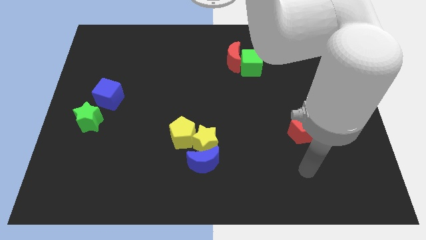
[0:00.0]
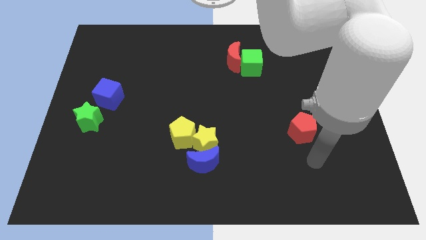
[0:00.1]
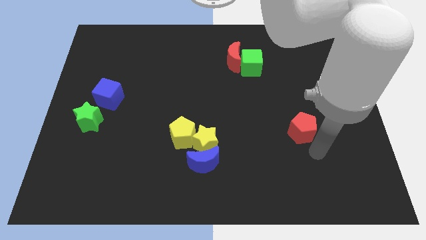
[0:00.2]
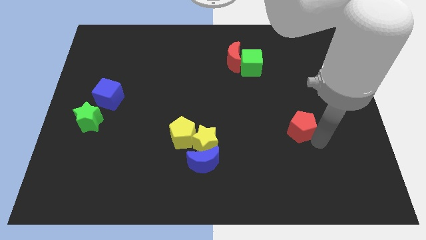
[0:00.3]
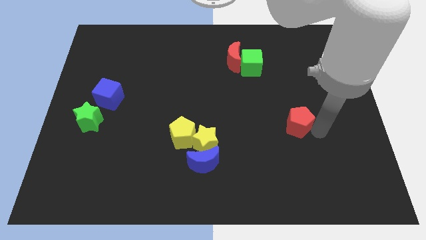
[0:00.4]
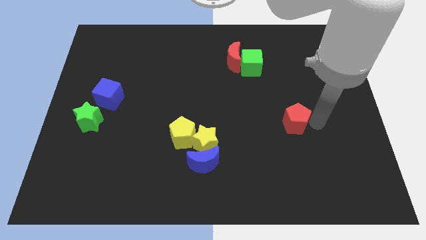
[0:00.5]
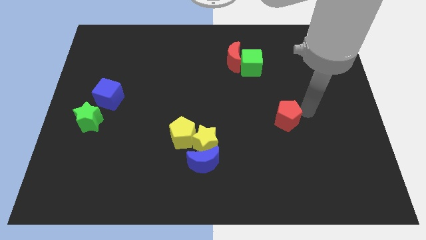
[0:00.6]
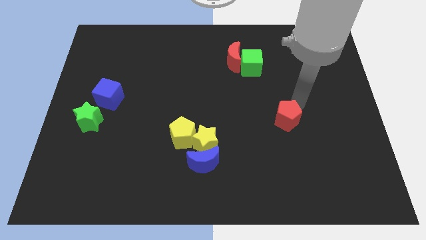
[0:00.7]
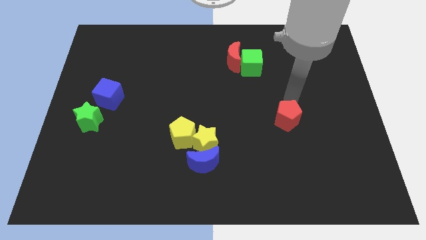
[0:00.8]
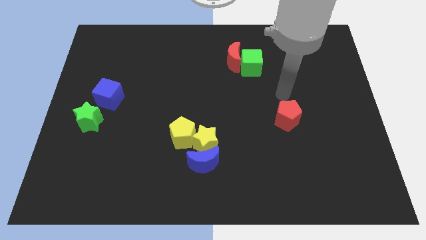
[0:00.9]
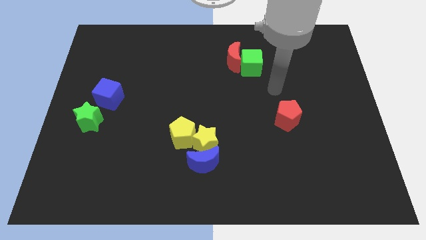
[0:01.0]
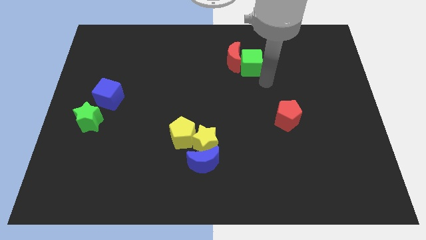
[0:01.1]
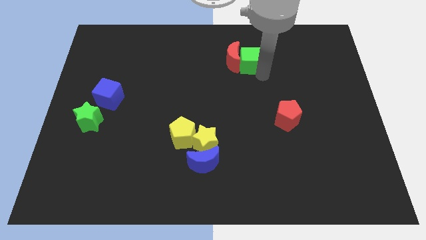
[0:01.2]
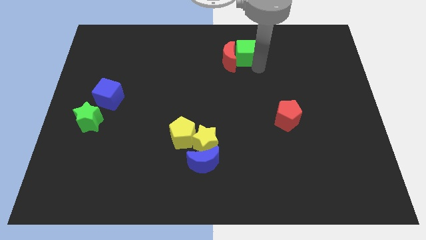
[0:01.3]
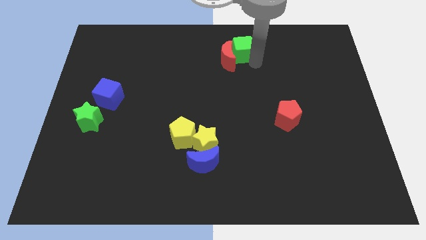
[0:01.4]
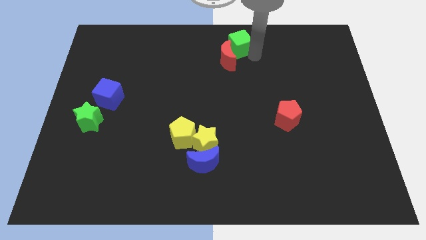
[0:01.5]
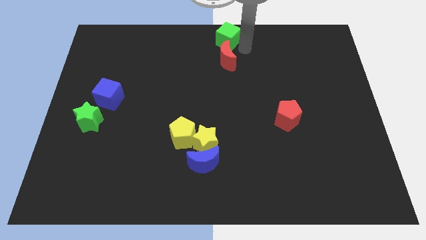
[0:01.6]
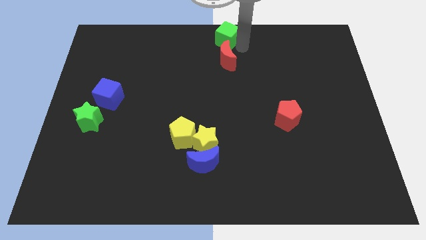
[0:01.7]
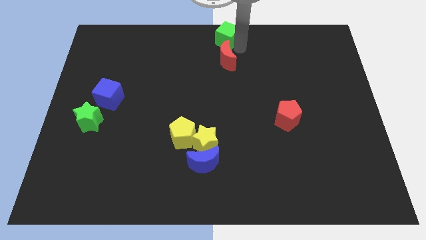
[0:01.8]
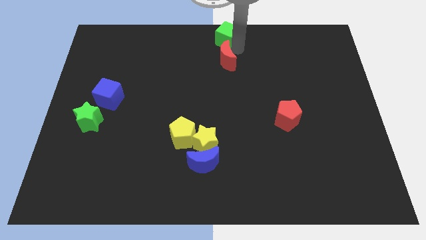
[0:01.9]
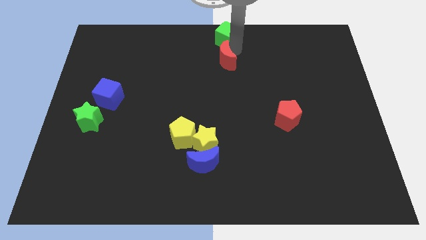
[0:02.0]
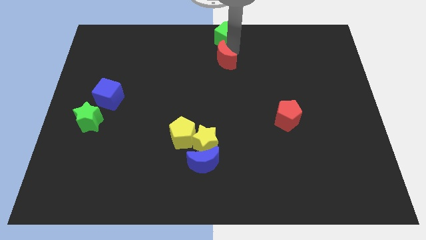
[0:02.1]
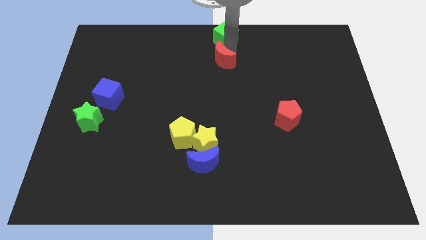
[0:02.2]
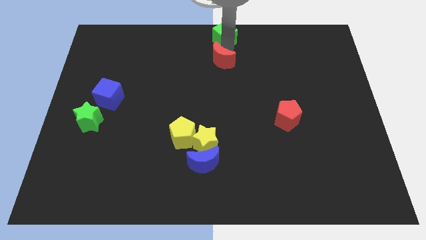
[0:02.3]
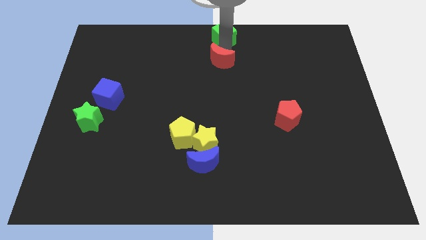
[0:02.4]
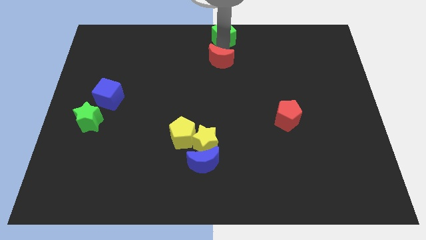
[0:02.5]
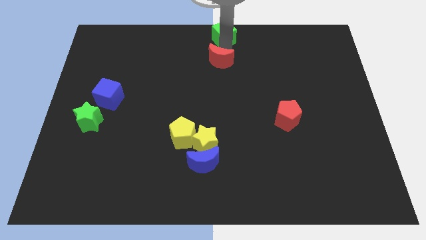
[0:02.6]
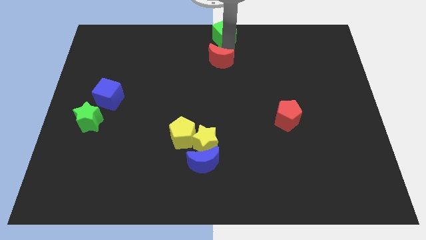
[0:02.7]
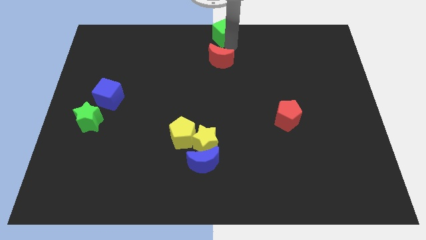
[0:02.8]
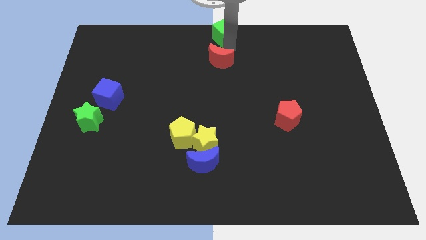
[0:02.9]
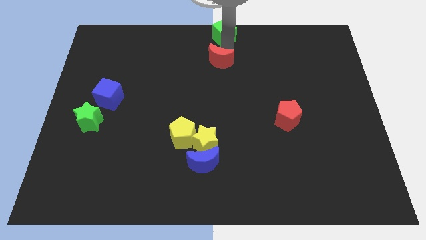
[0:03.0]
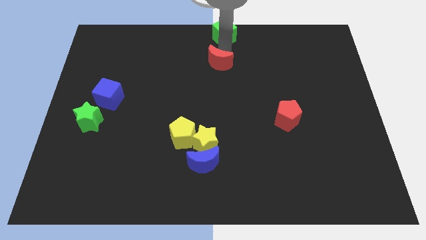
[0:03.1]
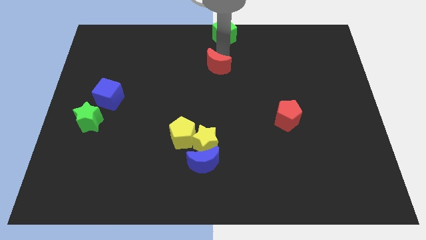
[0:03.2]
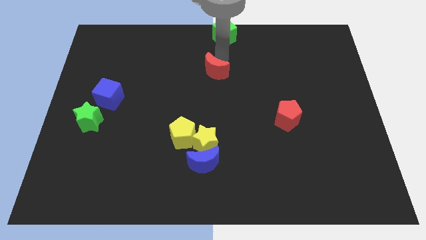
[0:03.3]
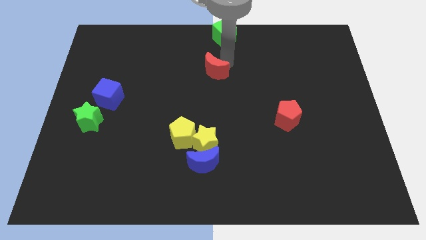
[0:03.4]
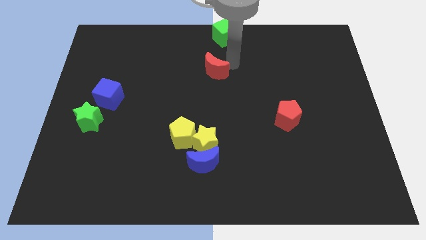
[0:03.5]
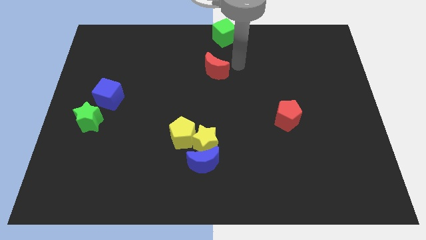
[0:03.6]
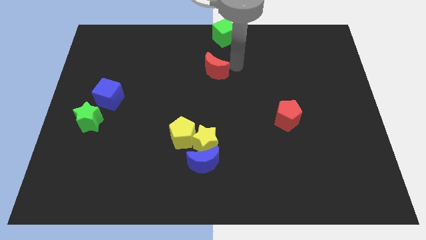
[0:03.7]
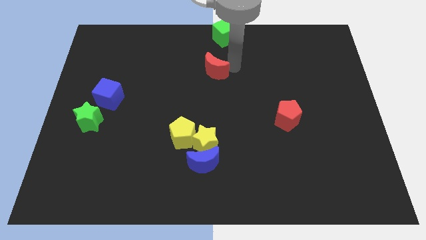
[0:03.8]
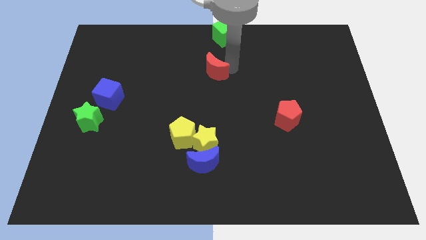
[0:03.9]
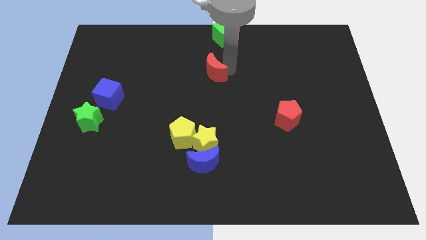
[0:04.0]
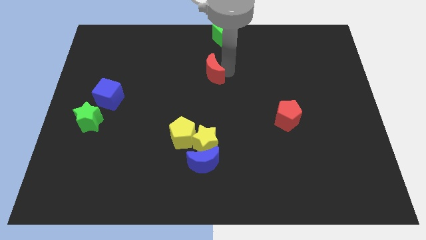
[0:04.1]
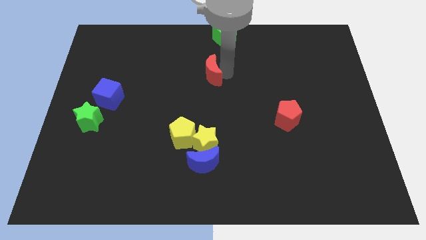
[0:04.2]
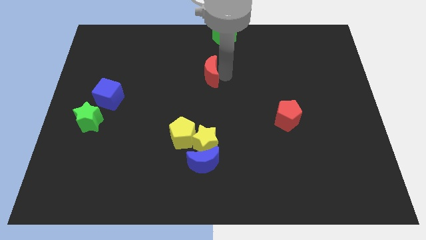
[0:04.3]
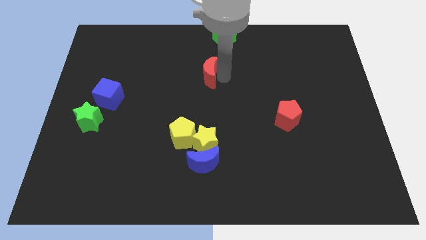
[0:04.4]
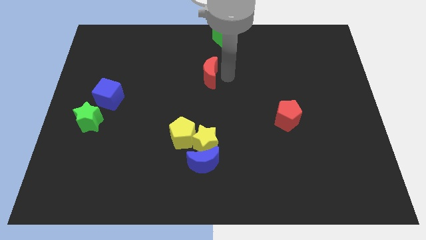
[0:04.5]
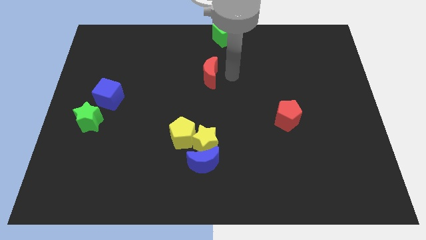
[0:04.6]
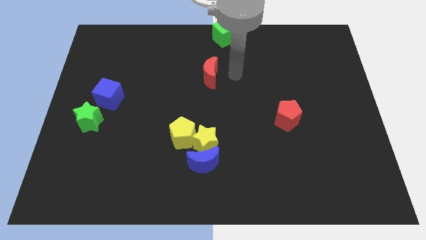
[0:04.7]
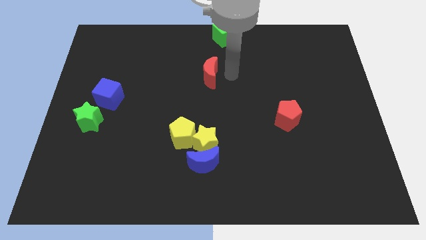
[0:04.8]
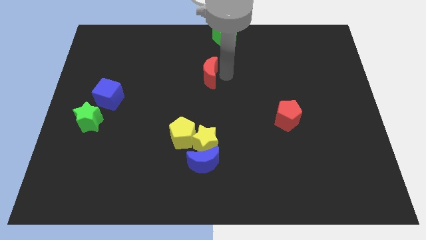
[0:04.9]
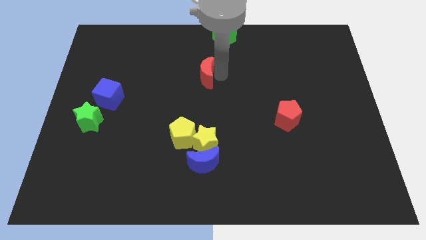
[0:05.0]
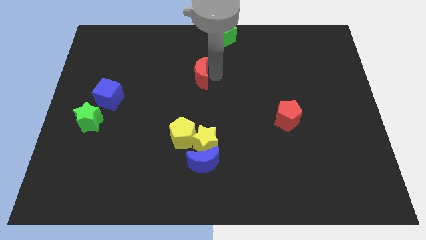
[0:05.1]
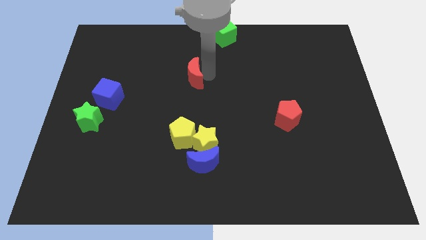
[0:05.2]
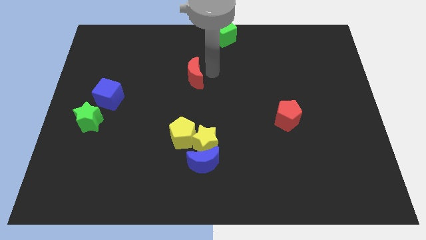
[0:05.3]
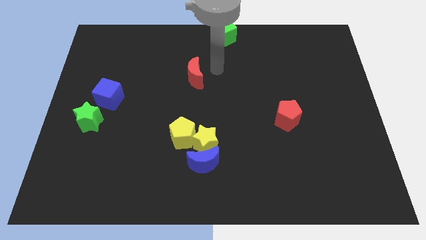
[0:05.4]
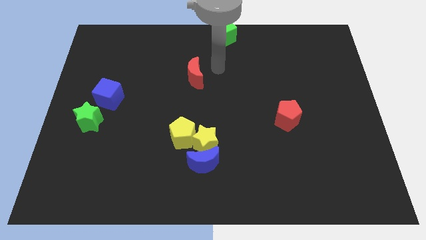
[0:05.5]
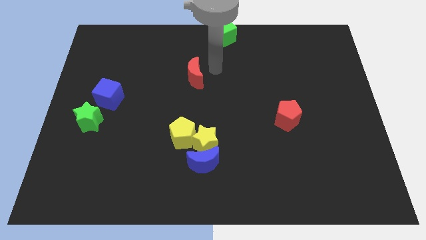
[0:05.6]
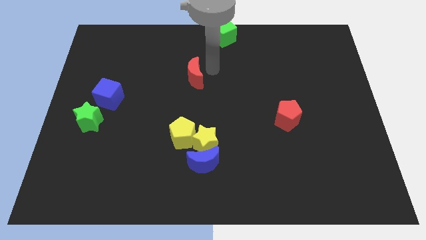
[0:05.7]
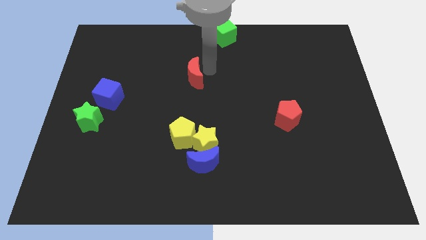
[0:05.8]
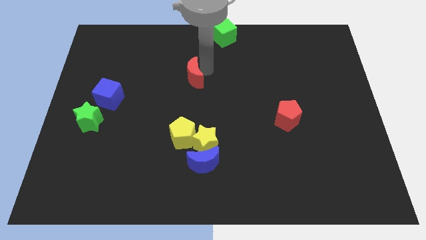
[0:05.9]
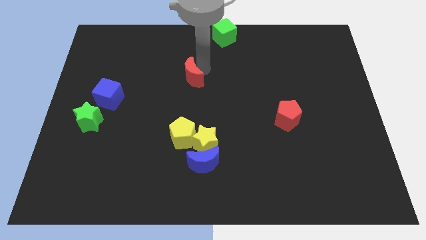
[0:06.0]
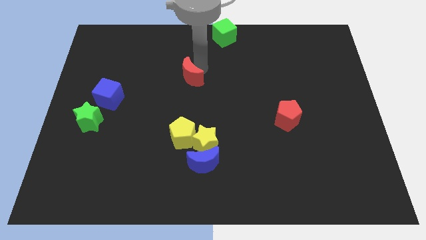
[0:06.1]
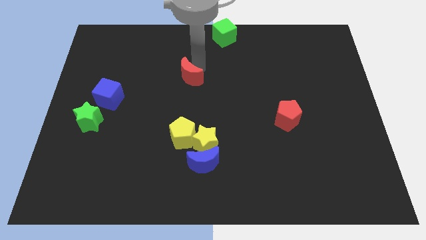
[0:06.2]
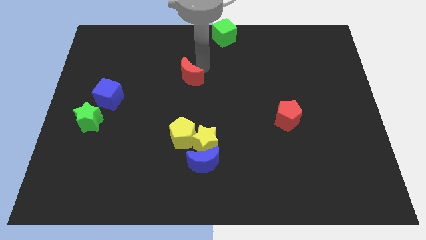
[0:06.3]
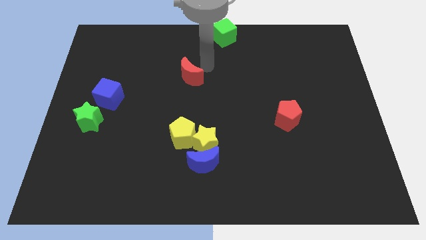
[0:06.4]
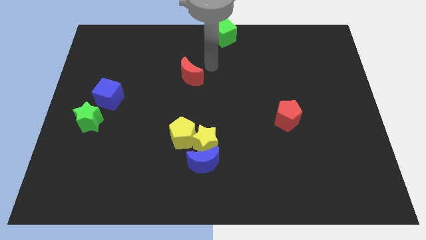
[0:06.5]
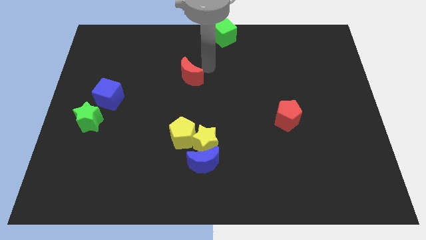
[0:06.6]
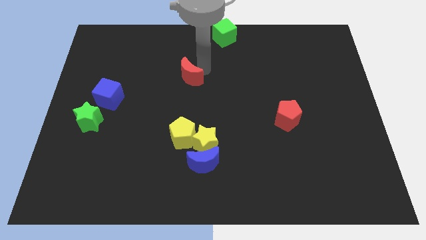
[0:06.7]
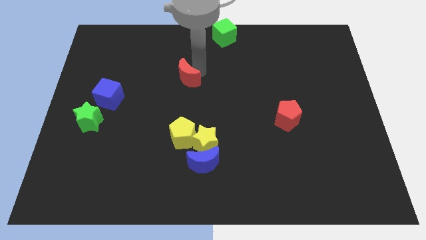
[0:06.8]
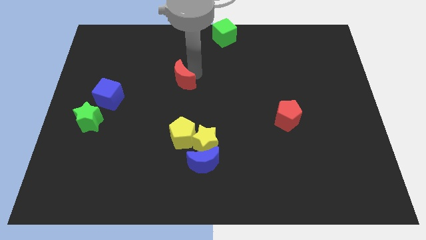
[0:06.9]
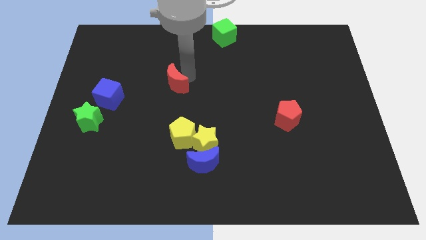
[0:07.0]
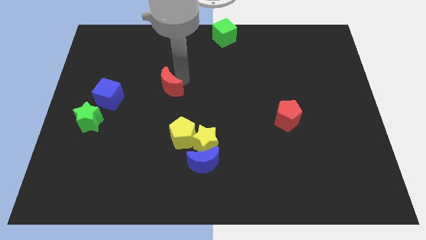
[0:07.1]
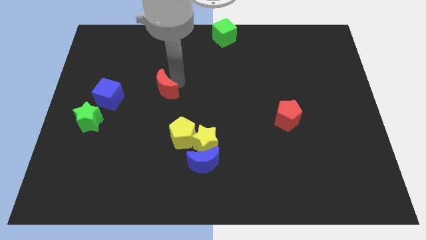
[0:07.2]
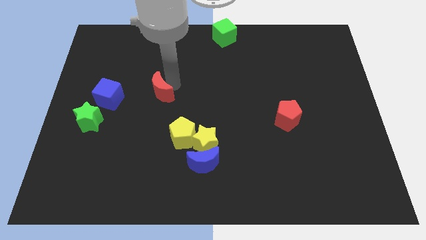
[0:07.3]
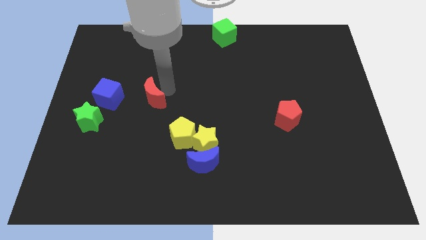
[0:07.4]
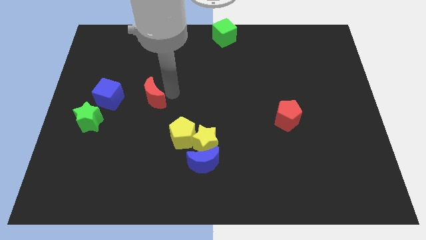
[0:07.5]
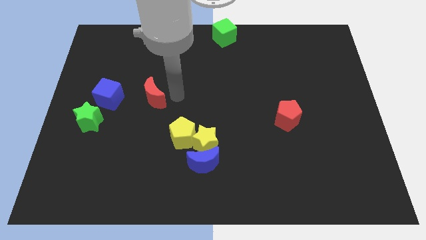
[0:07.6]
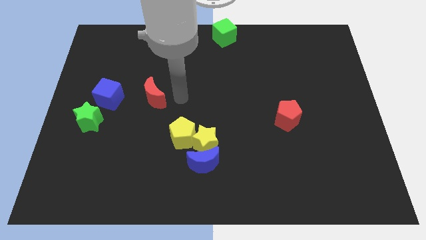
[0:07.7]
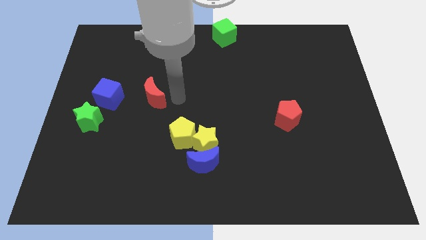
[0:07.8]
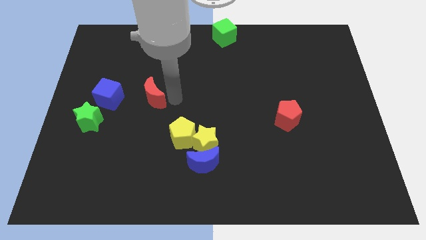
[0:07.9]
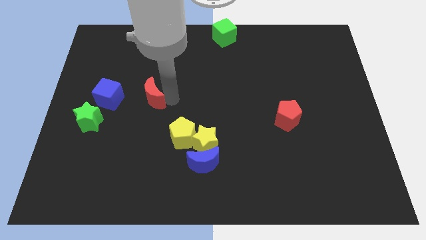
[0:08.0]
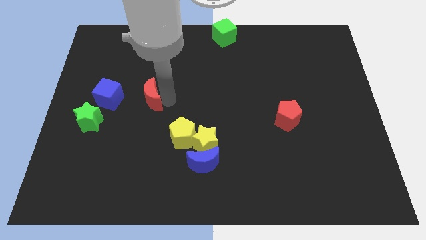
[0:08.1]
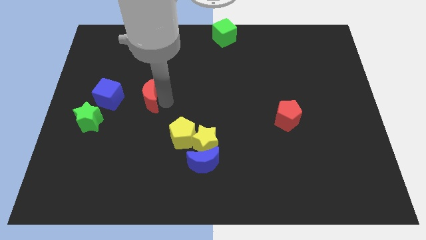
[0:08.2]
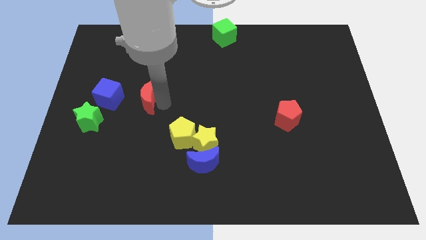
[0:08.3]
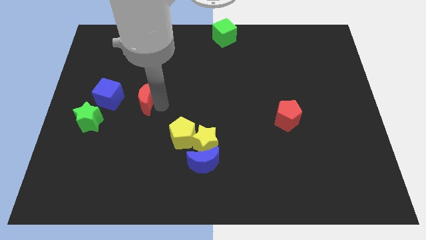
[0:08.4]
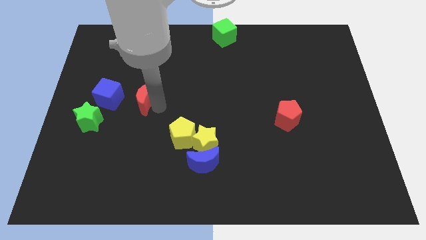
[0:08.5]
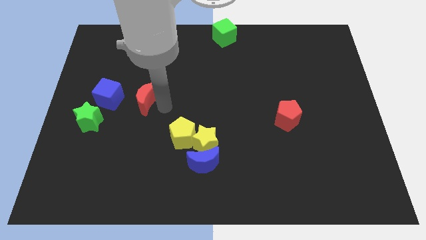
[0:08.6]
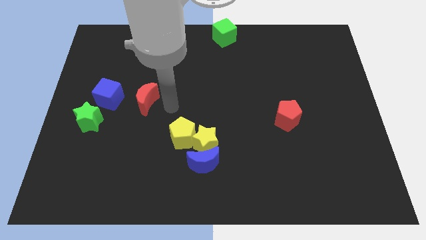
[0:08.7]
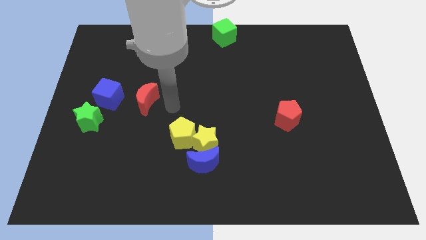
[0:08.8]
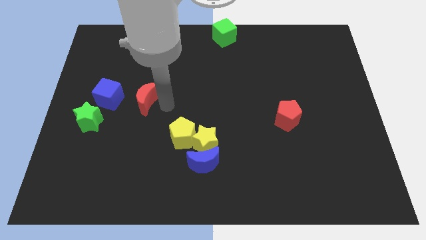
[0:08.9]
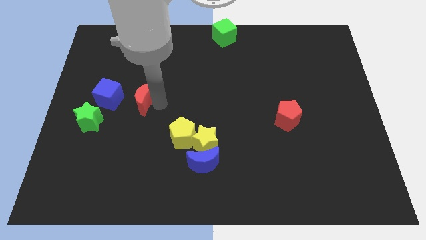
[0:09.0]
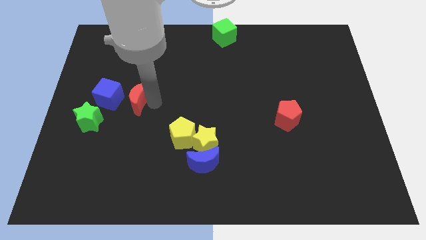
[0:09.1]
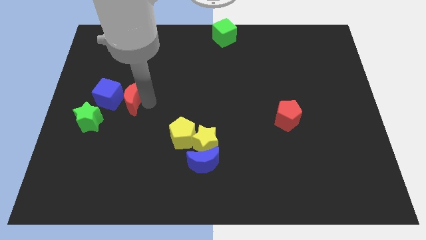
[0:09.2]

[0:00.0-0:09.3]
push the red moon close to the blue cube
